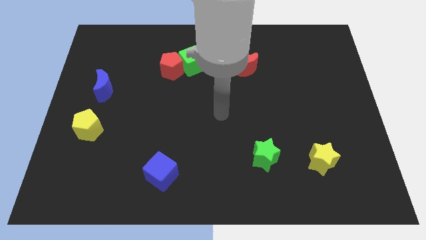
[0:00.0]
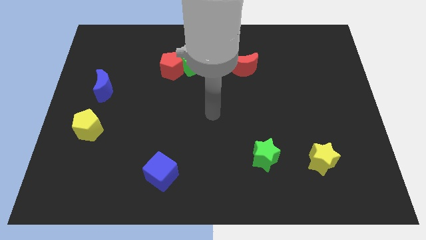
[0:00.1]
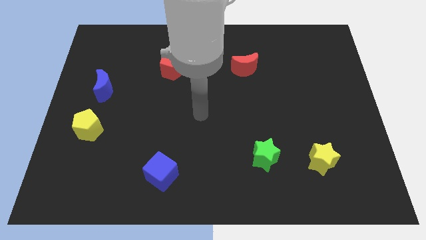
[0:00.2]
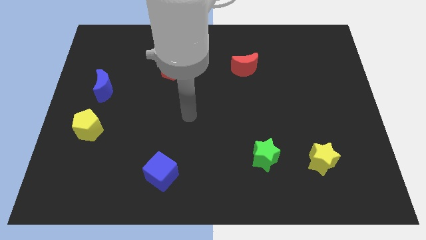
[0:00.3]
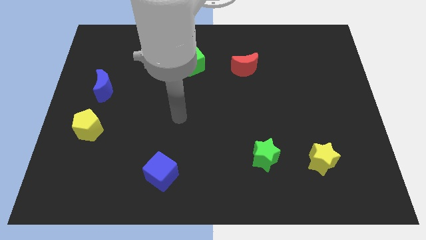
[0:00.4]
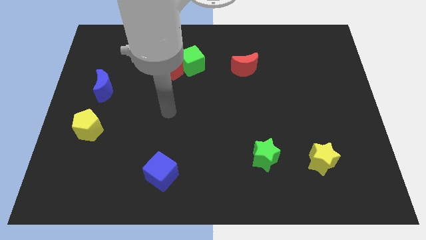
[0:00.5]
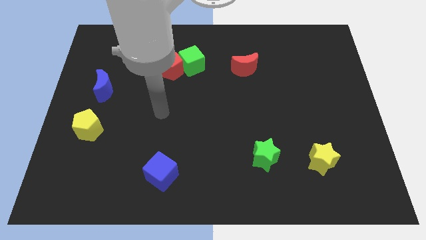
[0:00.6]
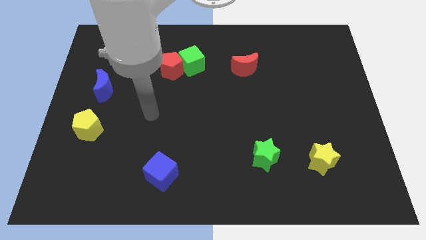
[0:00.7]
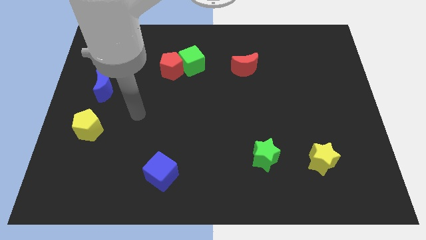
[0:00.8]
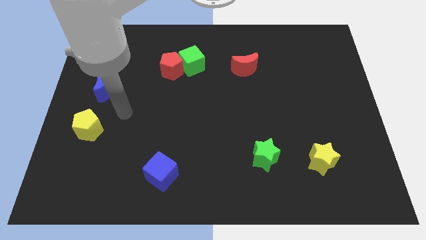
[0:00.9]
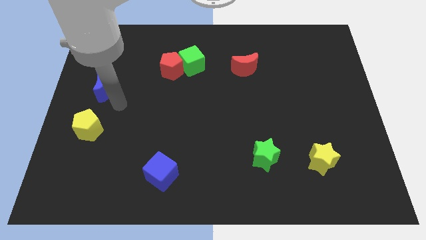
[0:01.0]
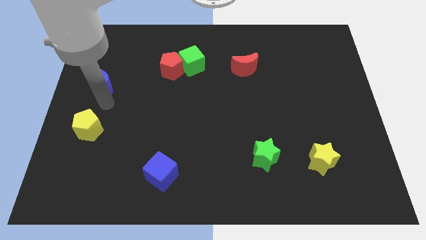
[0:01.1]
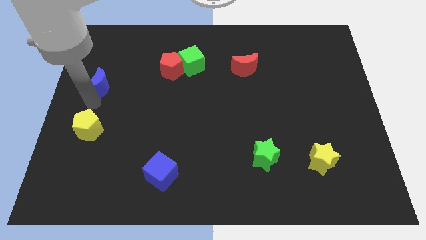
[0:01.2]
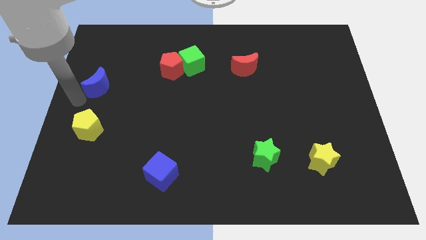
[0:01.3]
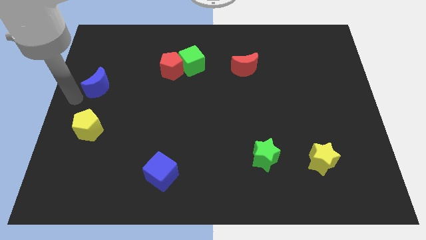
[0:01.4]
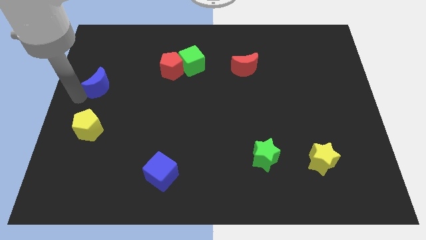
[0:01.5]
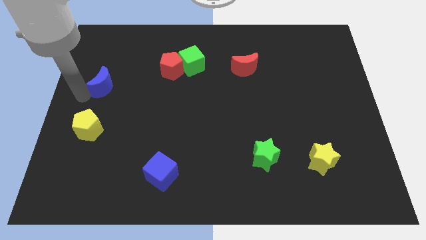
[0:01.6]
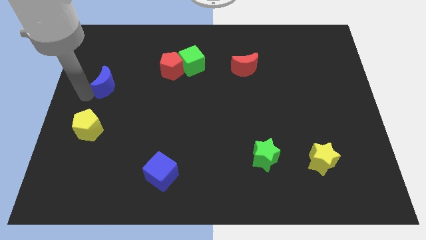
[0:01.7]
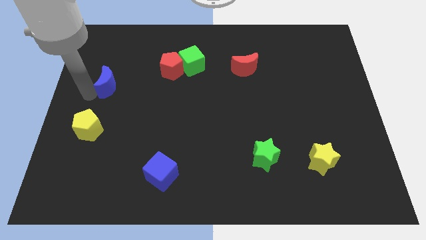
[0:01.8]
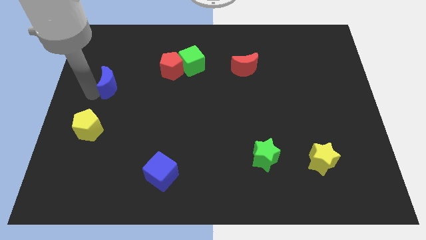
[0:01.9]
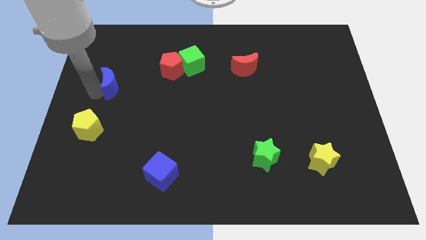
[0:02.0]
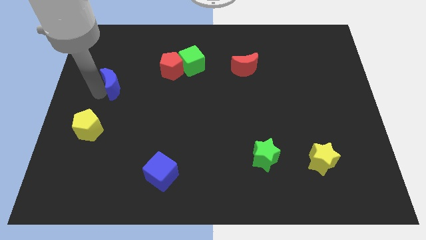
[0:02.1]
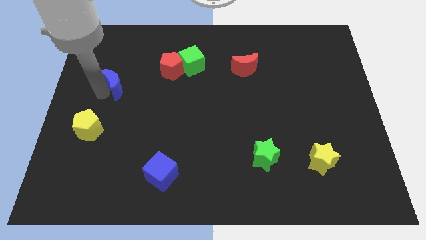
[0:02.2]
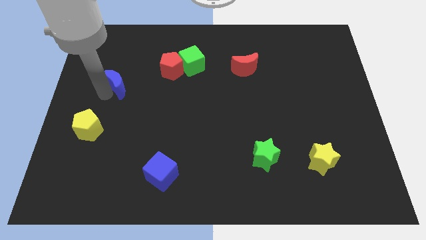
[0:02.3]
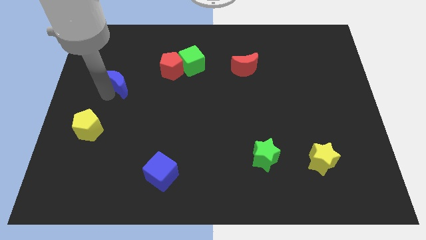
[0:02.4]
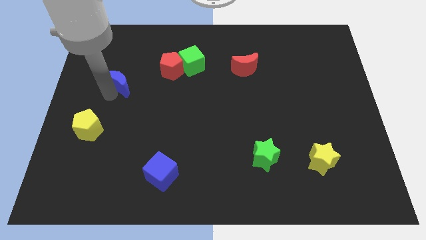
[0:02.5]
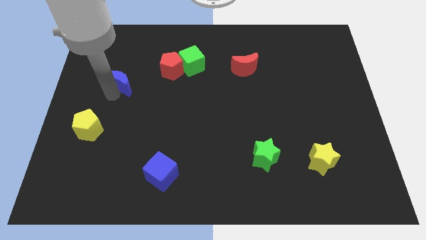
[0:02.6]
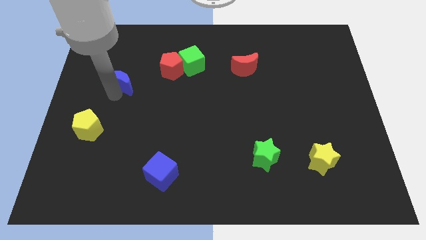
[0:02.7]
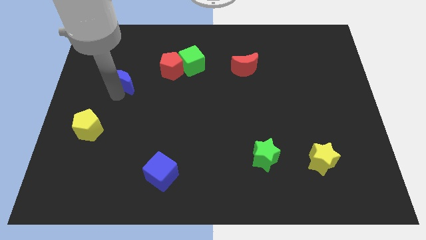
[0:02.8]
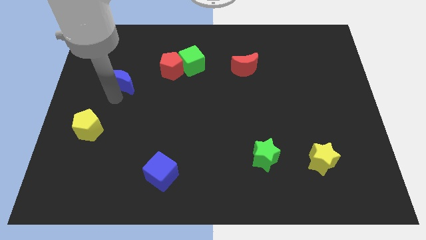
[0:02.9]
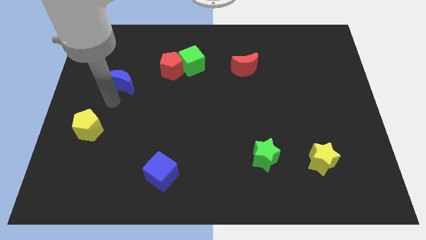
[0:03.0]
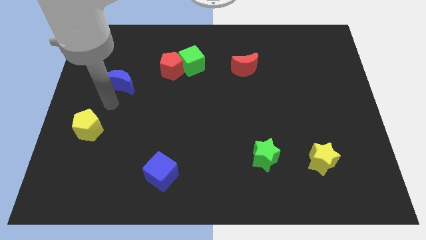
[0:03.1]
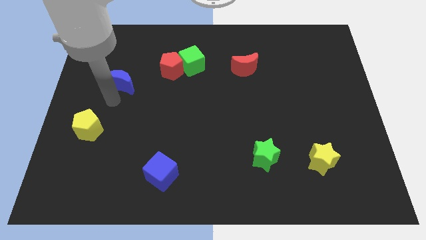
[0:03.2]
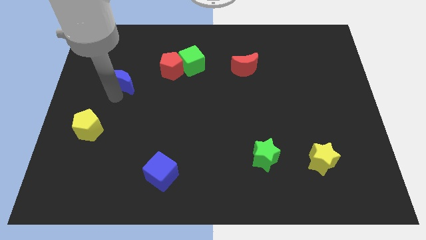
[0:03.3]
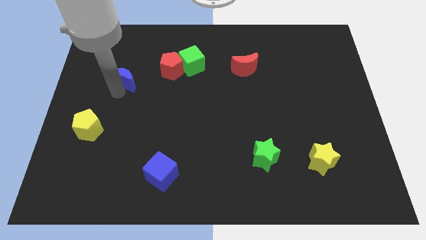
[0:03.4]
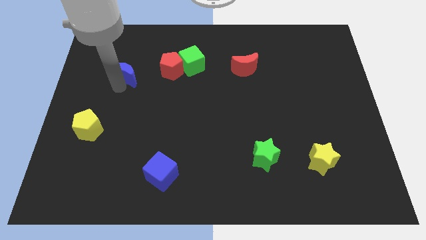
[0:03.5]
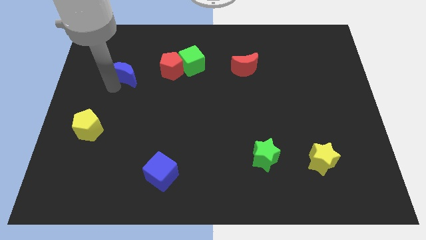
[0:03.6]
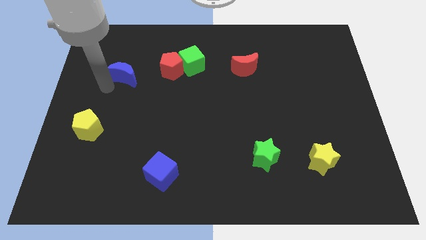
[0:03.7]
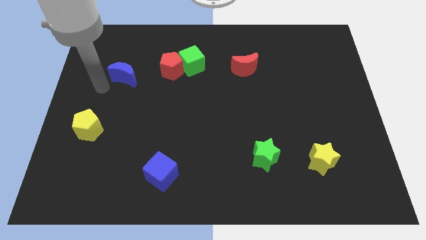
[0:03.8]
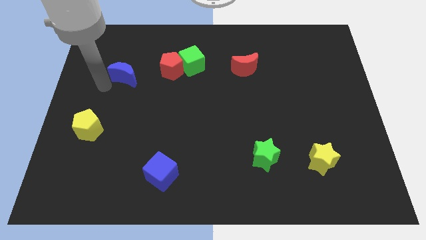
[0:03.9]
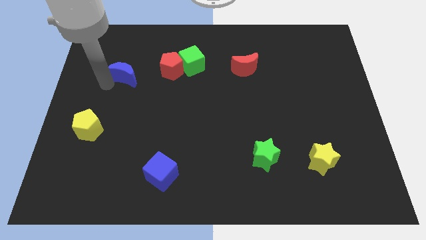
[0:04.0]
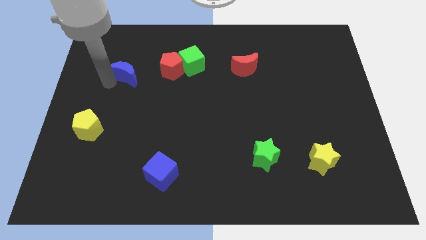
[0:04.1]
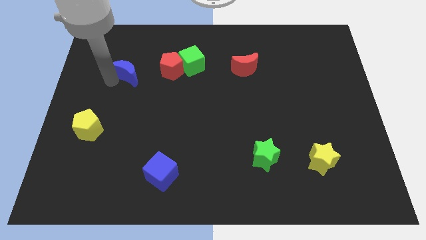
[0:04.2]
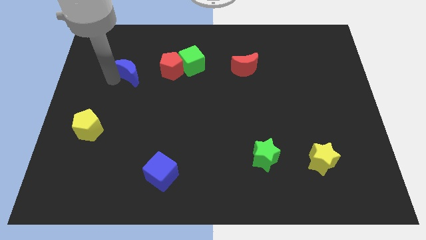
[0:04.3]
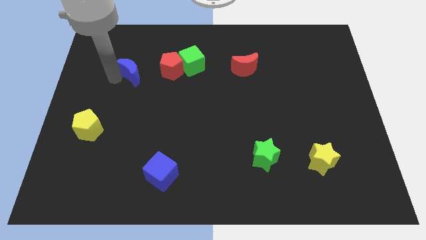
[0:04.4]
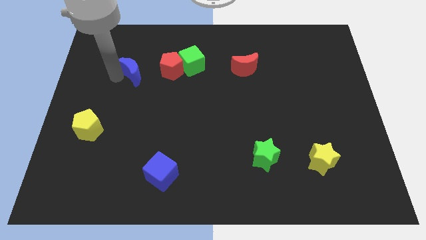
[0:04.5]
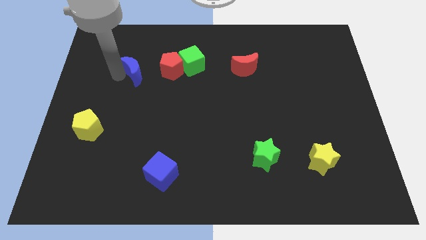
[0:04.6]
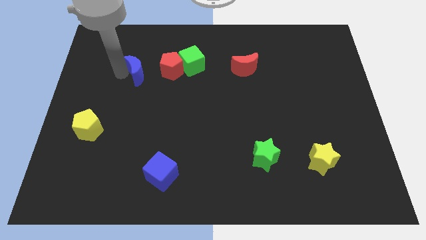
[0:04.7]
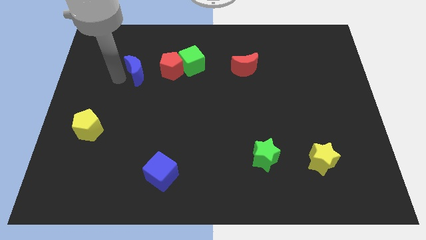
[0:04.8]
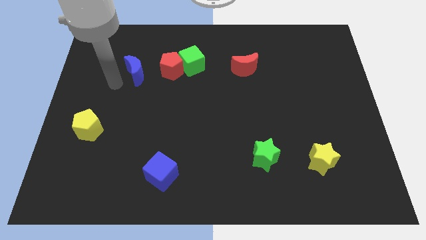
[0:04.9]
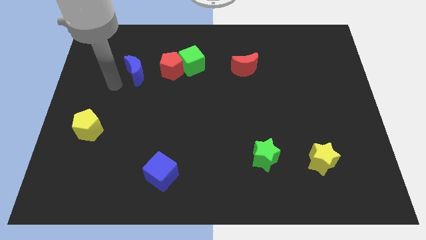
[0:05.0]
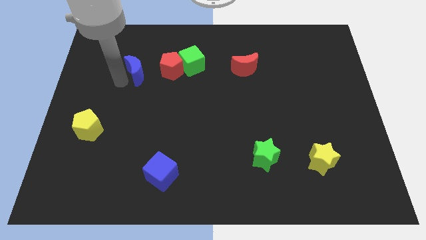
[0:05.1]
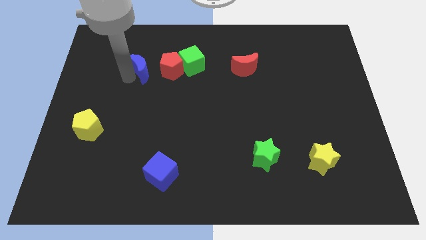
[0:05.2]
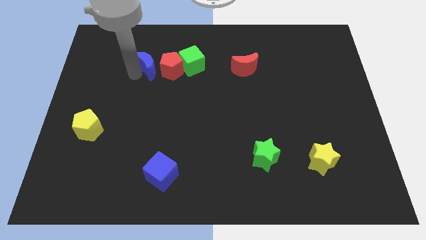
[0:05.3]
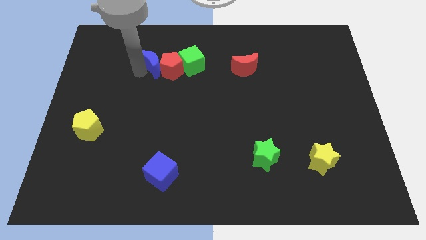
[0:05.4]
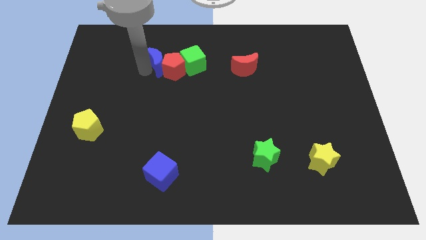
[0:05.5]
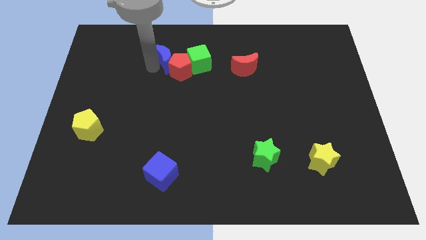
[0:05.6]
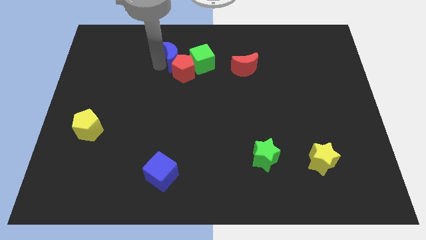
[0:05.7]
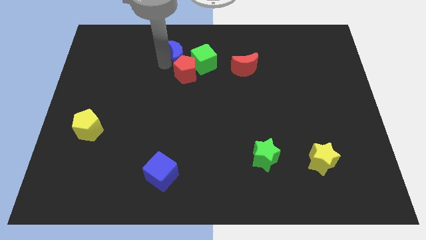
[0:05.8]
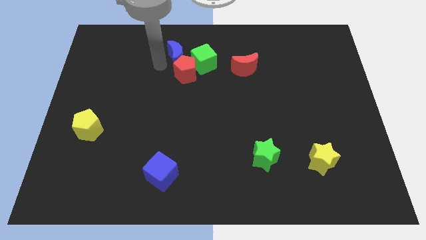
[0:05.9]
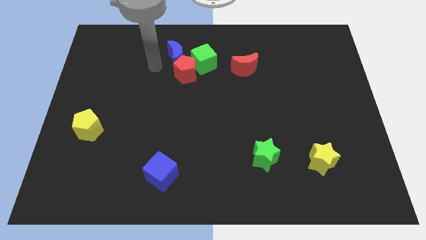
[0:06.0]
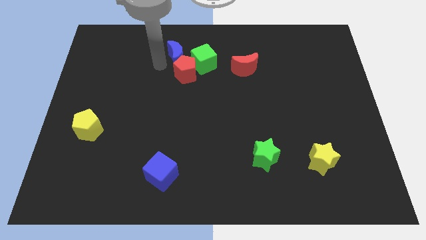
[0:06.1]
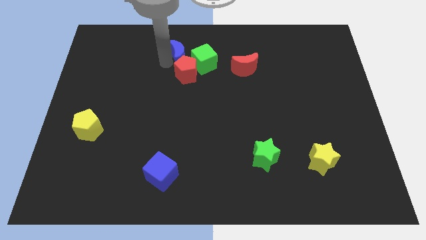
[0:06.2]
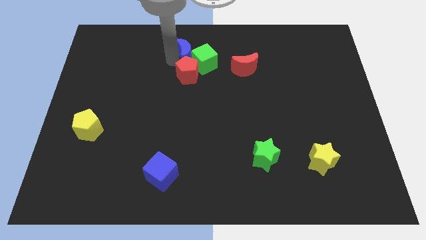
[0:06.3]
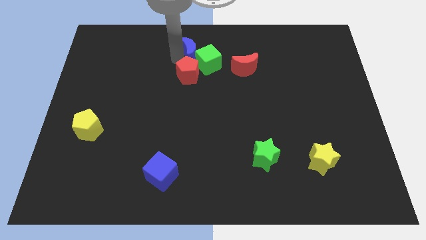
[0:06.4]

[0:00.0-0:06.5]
slide the blue moon to the top
